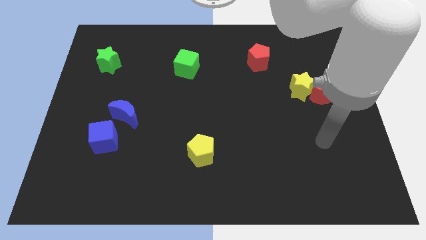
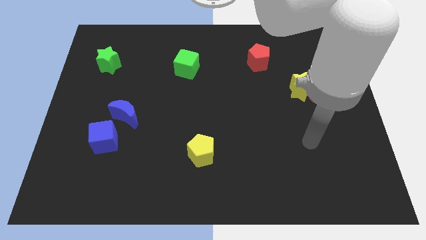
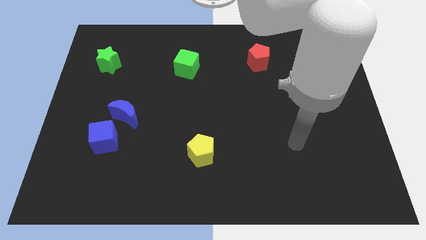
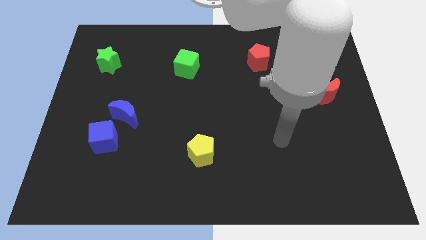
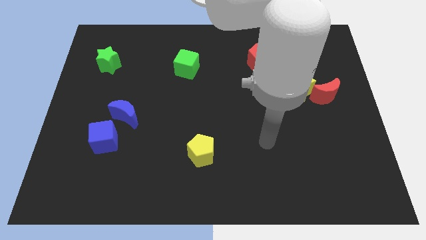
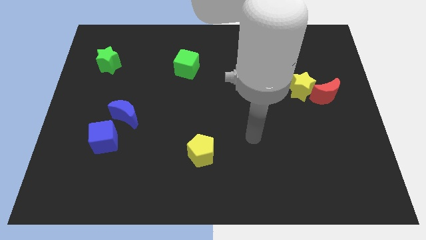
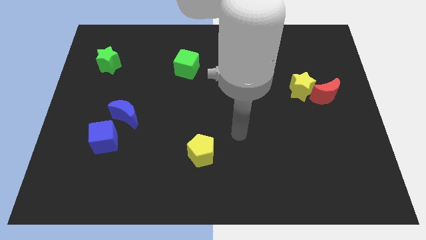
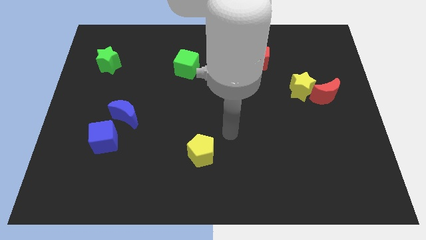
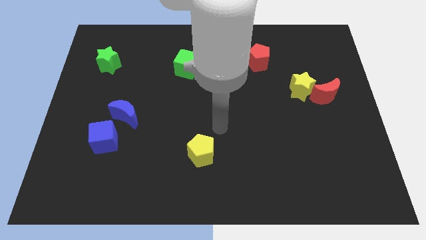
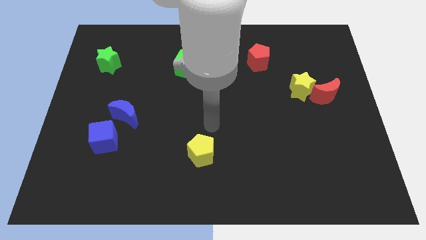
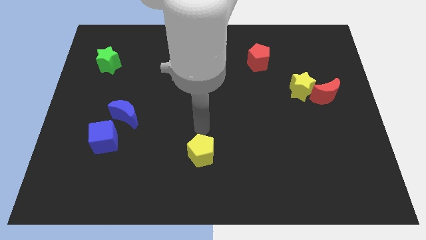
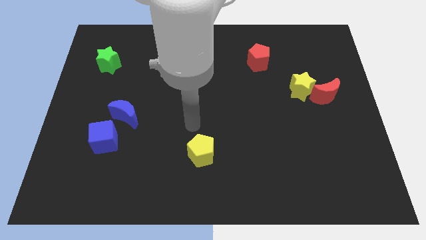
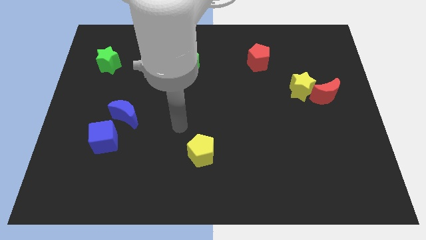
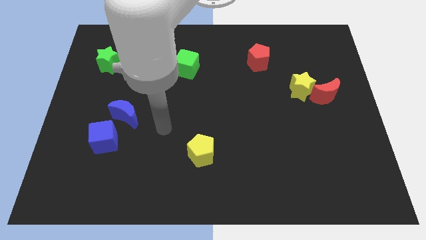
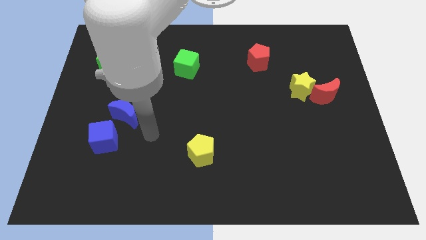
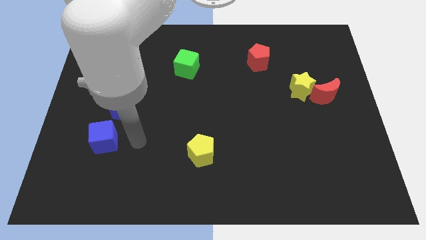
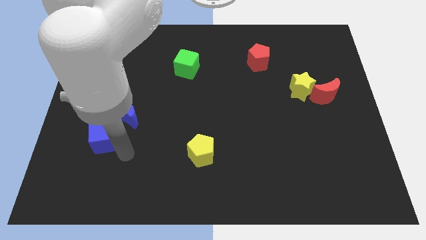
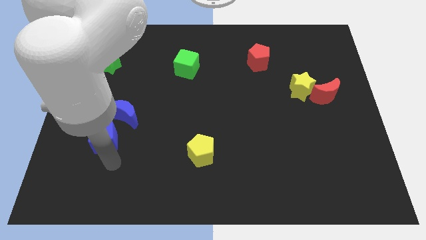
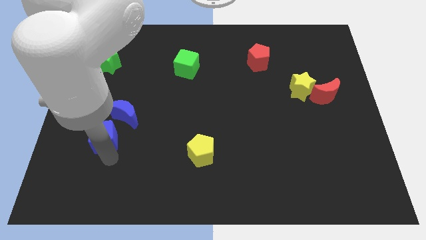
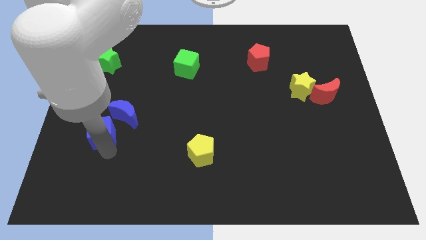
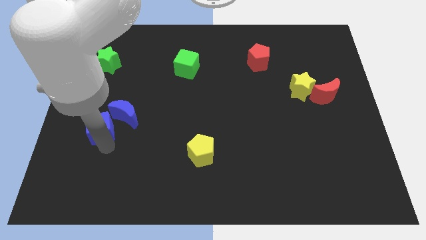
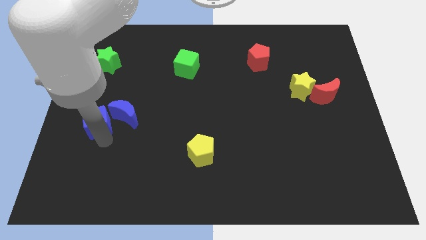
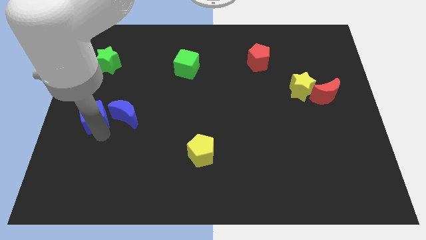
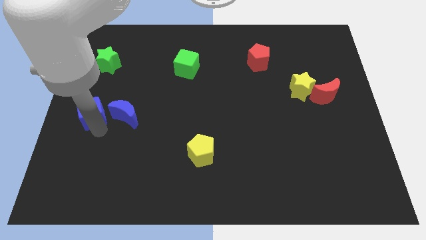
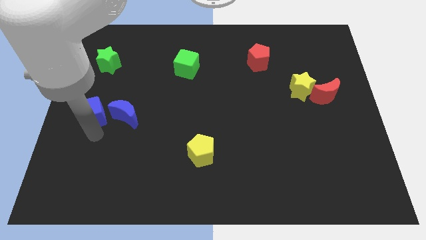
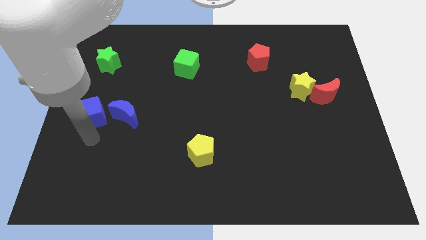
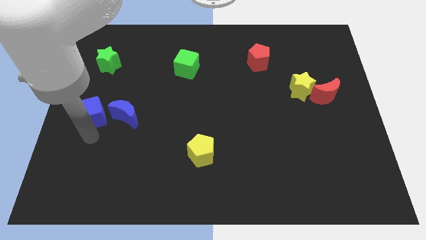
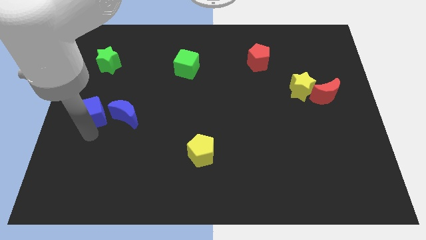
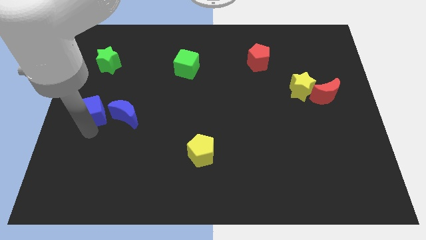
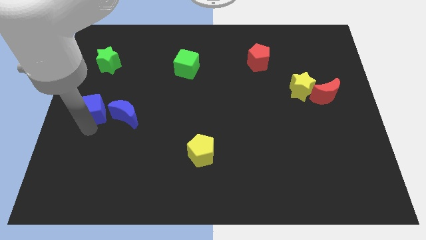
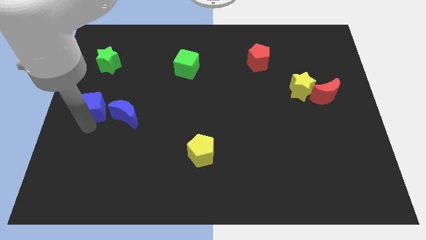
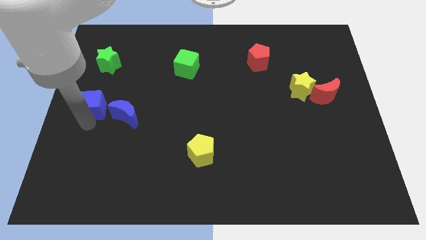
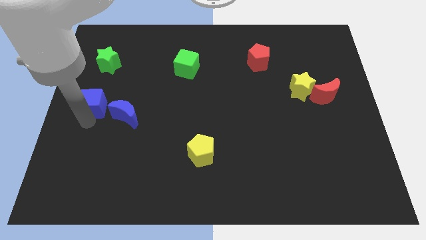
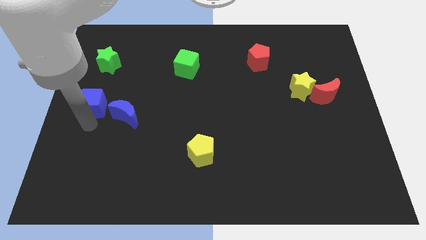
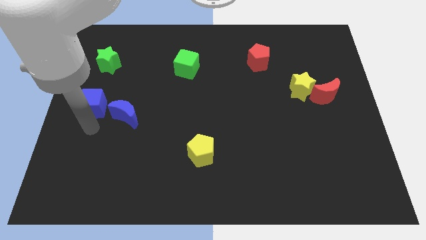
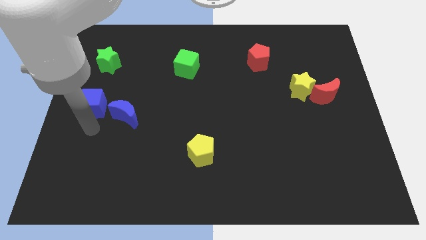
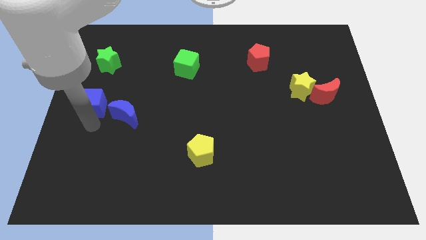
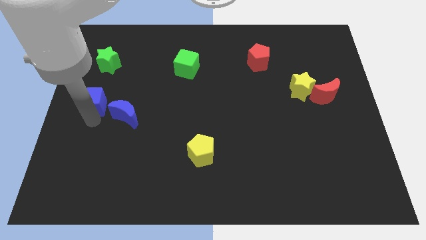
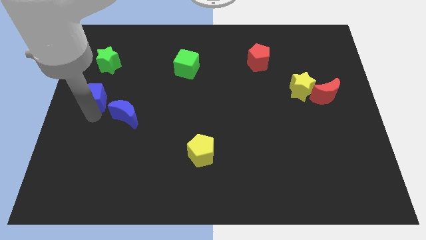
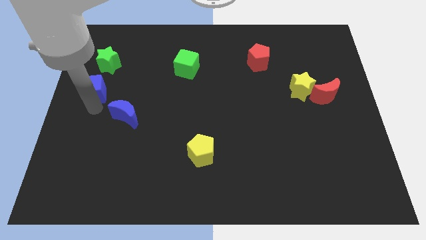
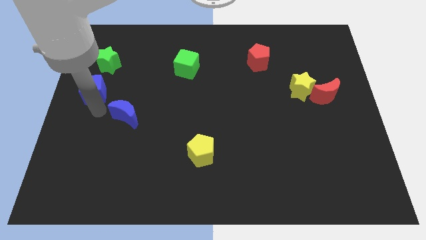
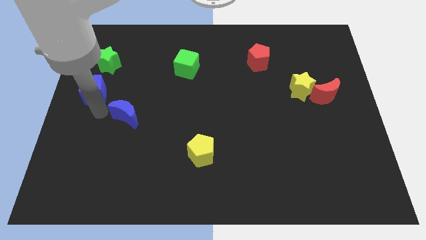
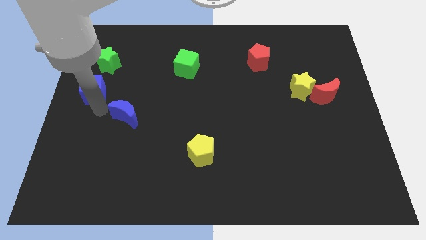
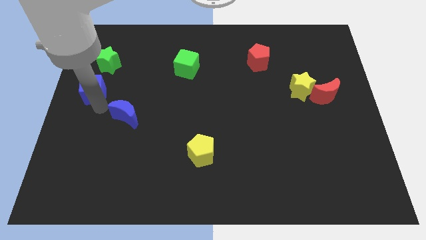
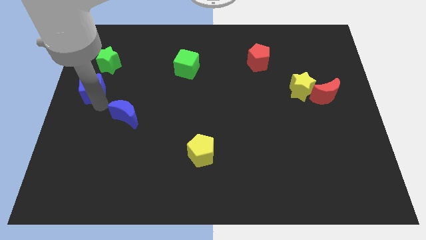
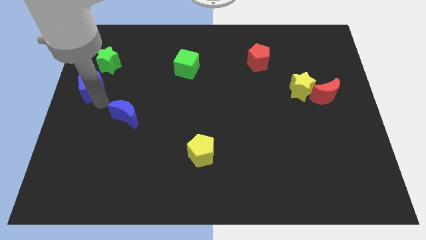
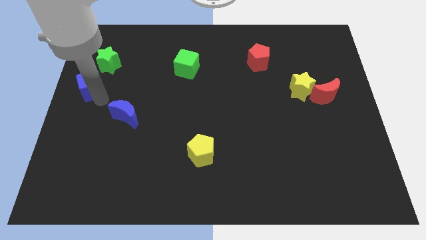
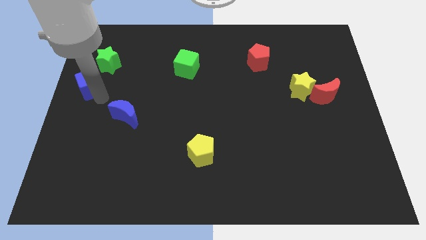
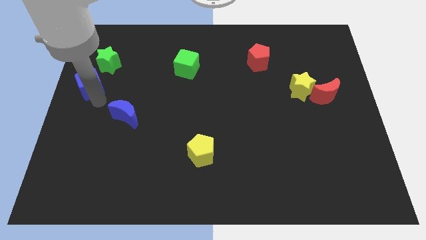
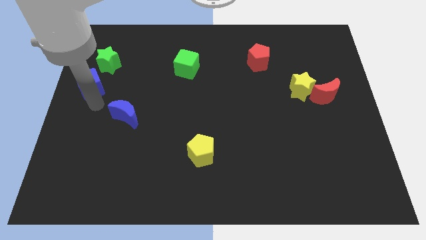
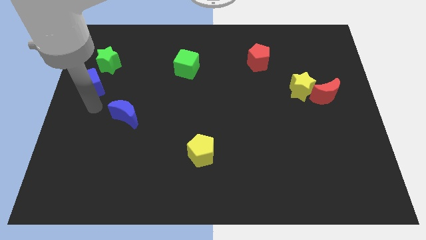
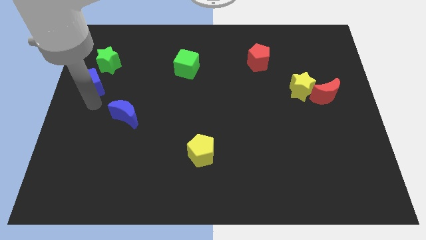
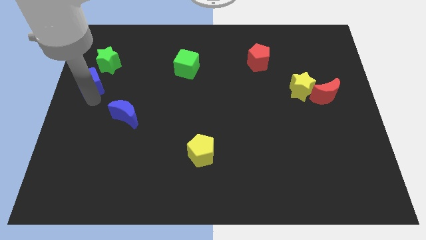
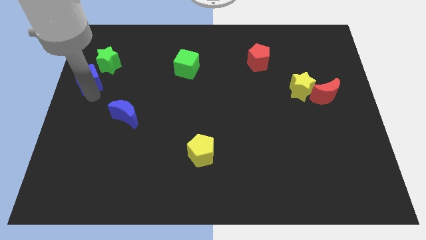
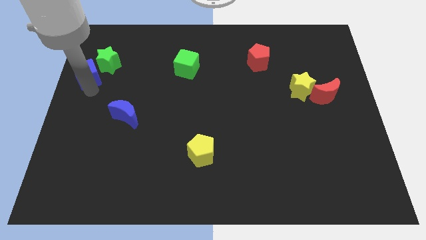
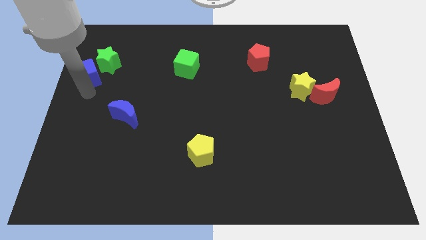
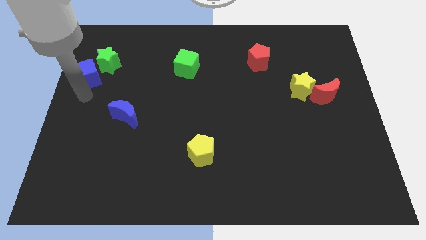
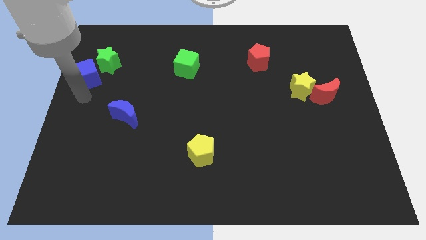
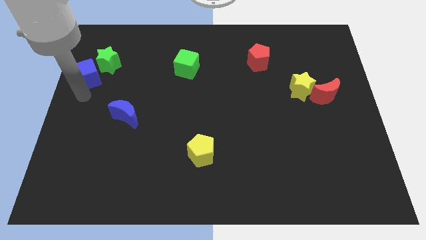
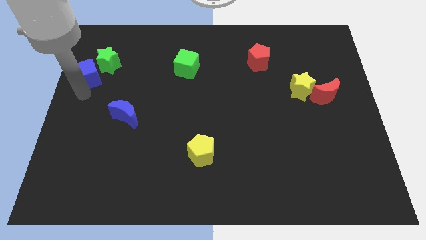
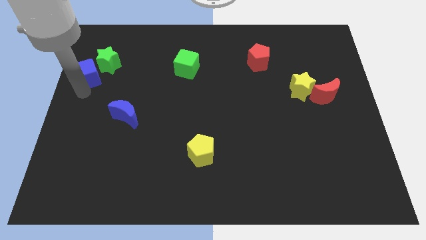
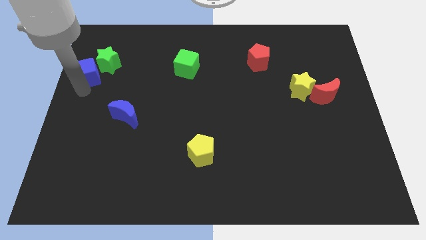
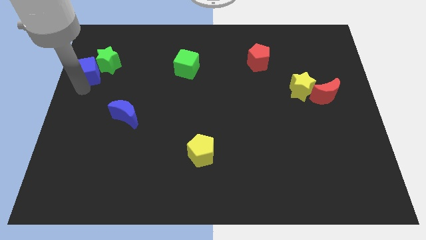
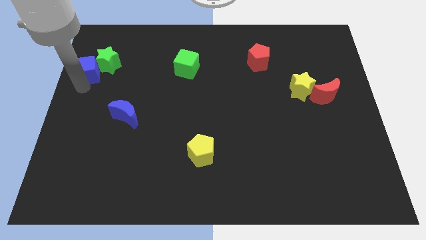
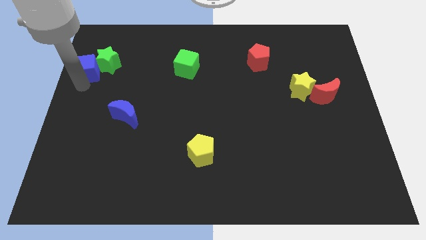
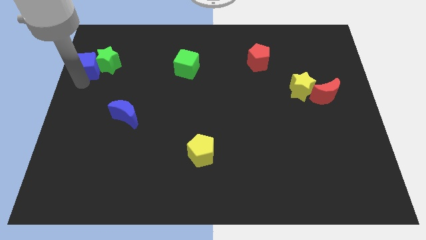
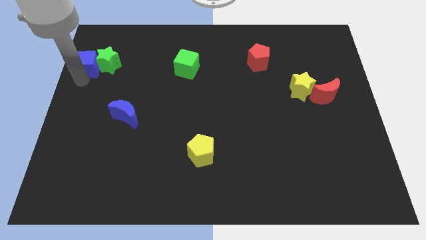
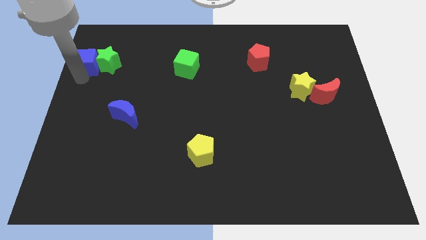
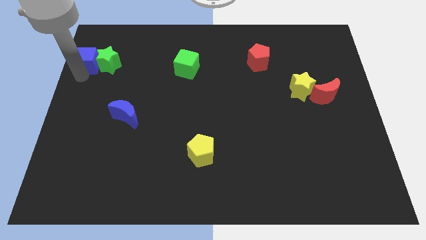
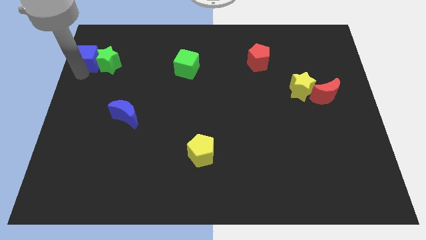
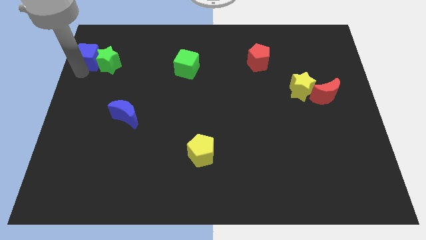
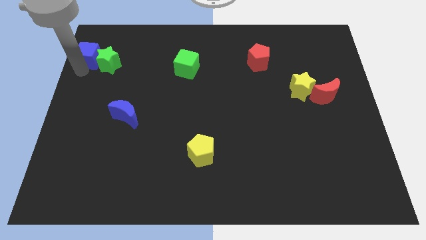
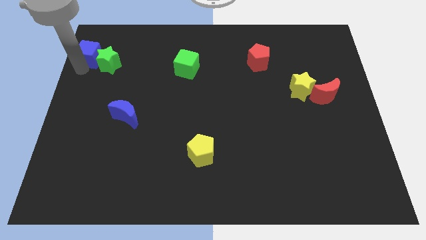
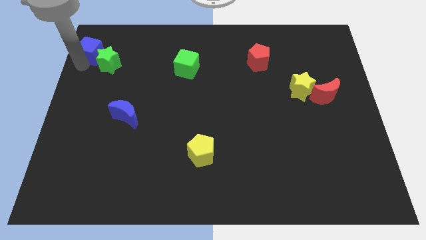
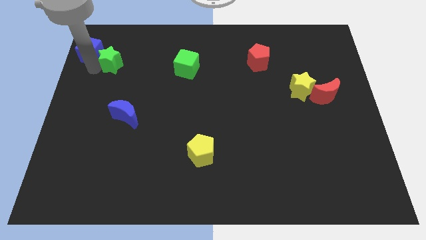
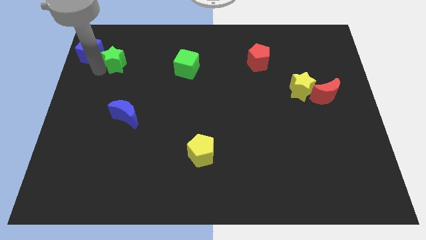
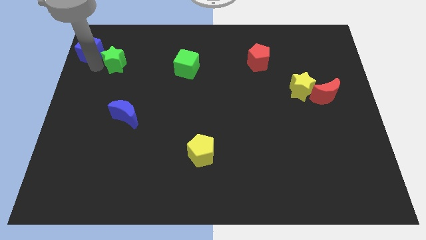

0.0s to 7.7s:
put the blue cube to the top left corner
